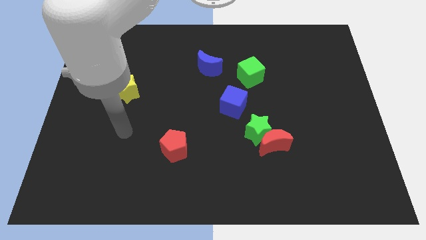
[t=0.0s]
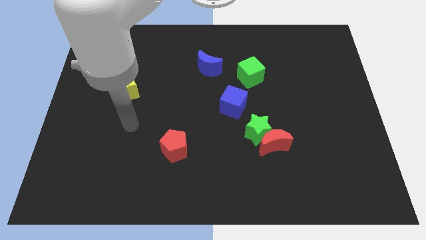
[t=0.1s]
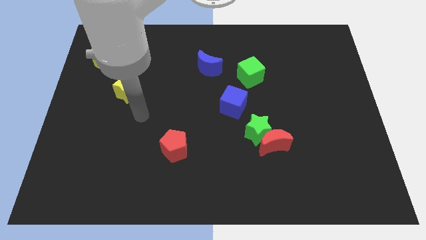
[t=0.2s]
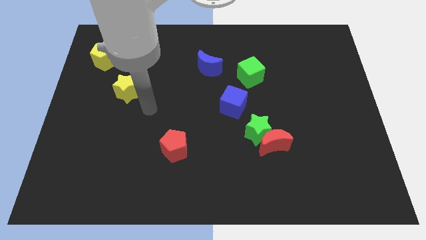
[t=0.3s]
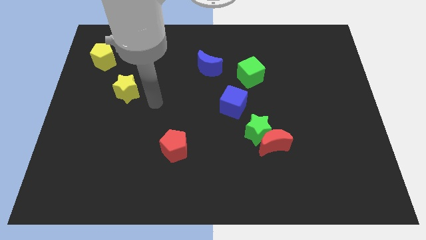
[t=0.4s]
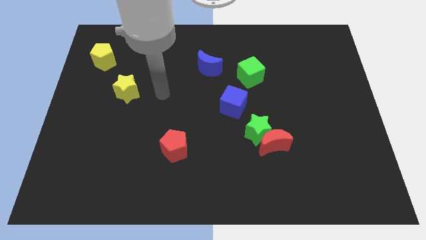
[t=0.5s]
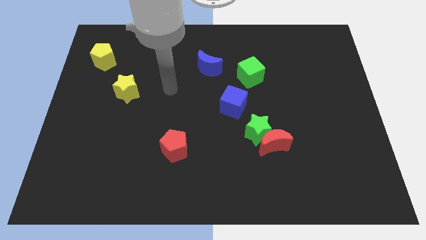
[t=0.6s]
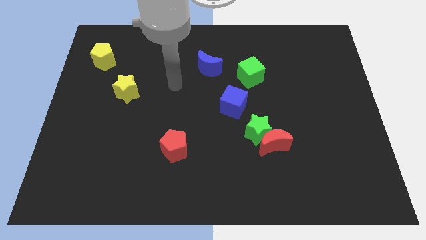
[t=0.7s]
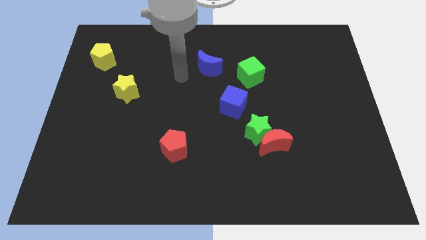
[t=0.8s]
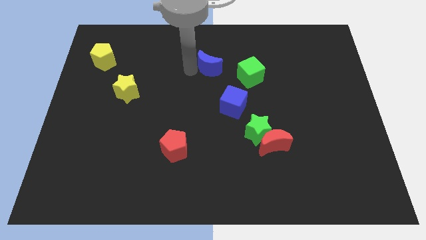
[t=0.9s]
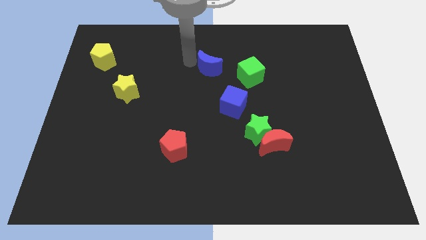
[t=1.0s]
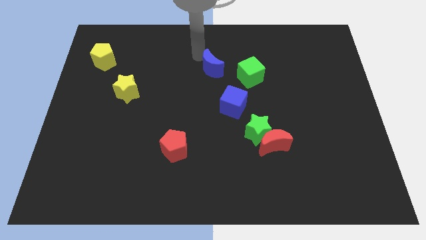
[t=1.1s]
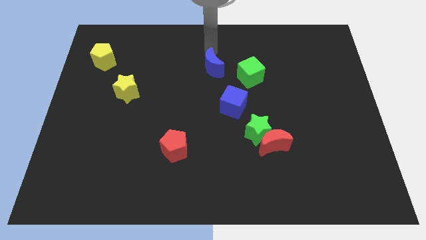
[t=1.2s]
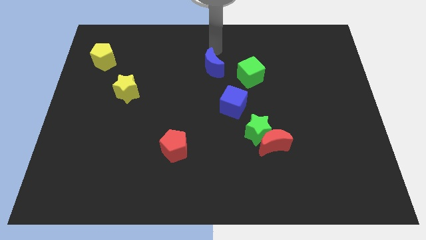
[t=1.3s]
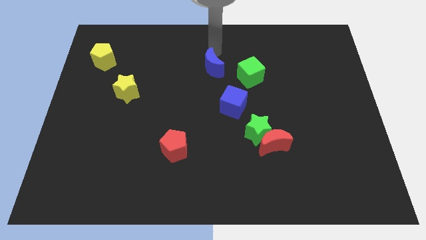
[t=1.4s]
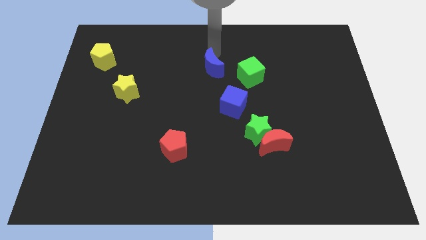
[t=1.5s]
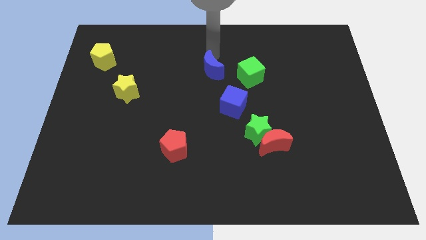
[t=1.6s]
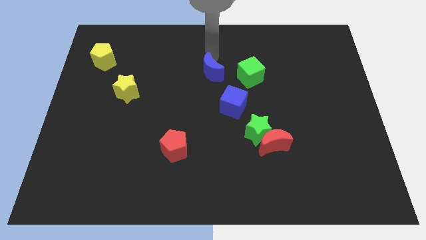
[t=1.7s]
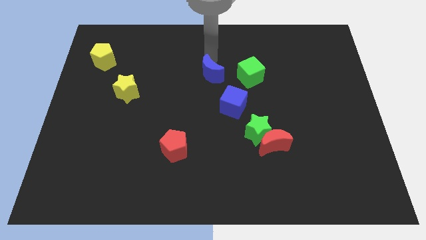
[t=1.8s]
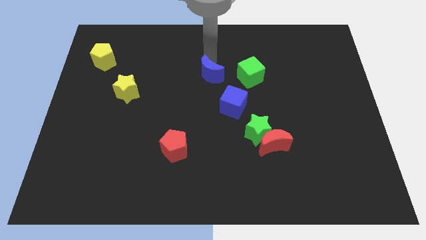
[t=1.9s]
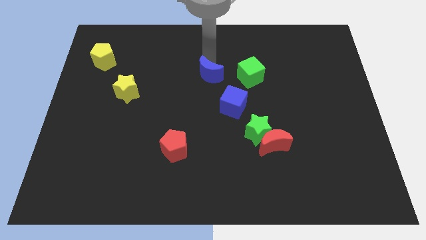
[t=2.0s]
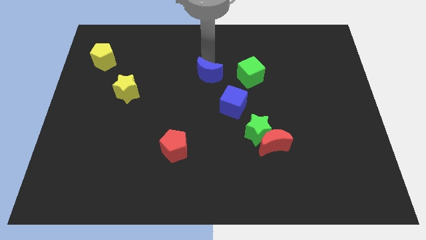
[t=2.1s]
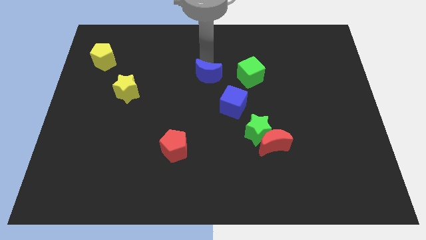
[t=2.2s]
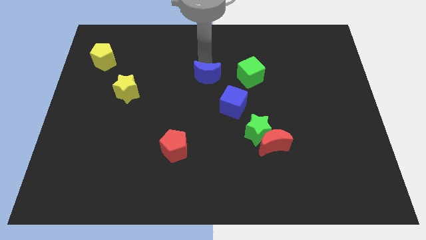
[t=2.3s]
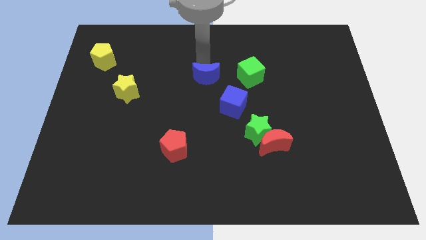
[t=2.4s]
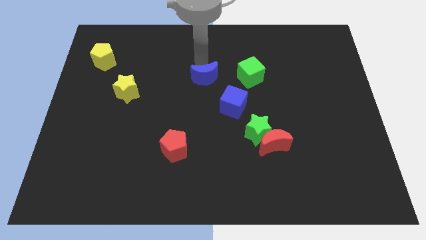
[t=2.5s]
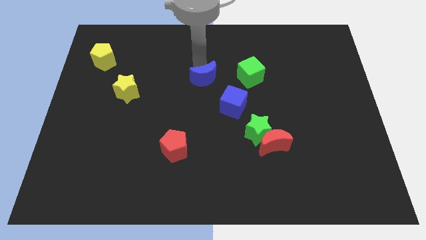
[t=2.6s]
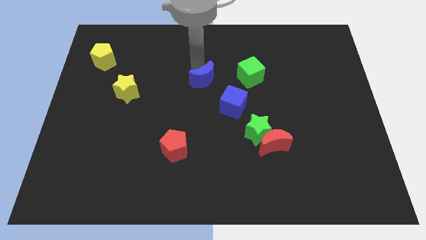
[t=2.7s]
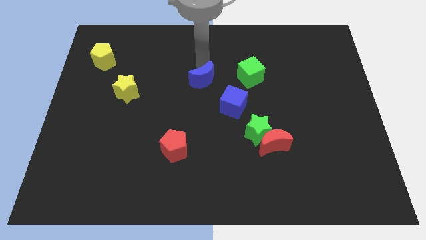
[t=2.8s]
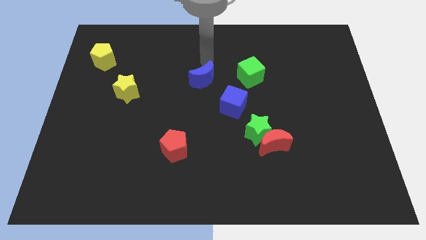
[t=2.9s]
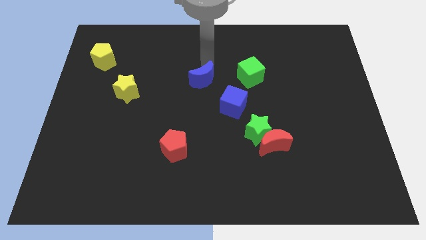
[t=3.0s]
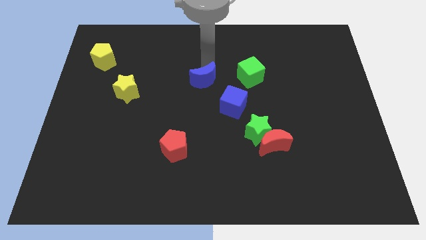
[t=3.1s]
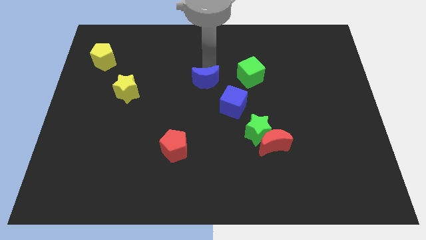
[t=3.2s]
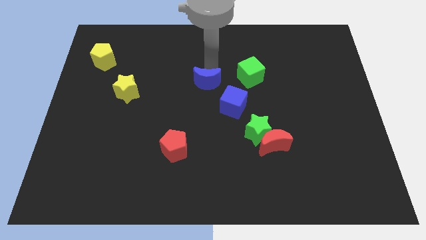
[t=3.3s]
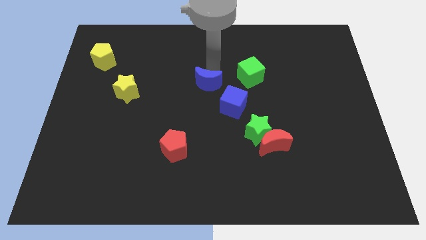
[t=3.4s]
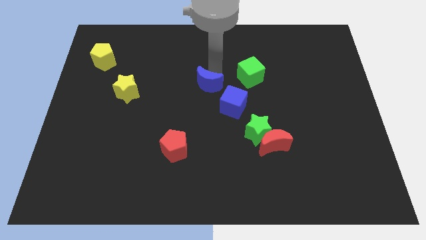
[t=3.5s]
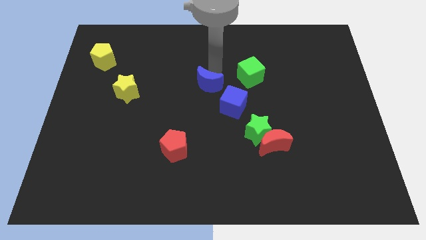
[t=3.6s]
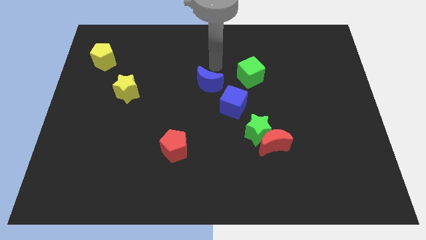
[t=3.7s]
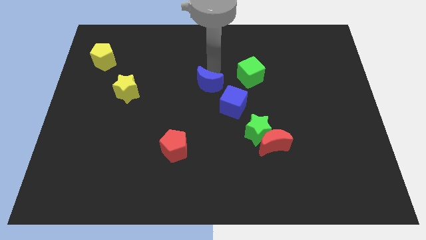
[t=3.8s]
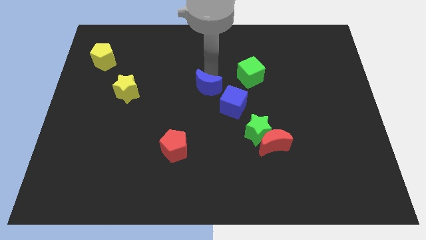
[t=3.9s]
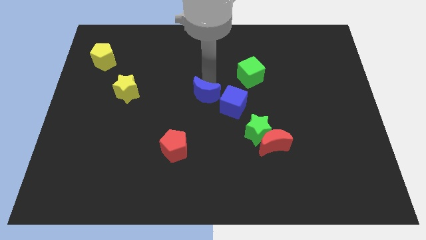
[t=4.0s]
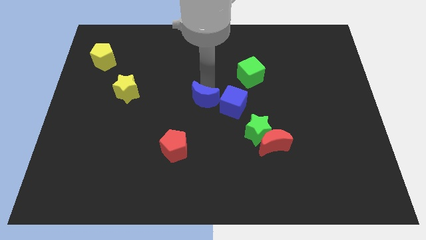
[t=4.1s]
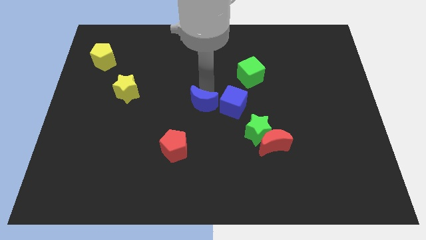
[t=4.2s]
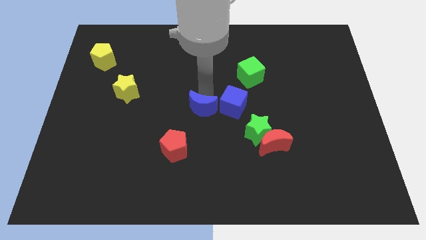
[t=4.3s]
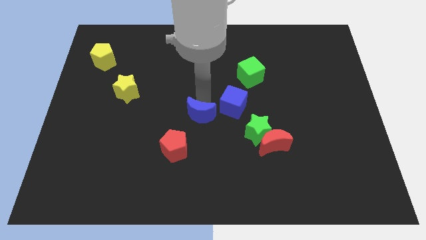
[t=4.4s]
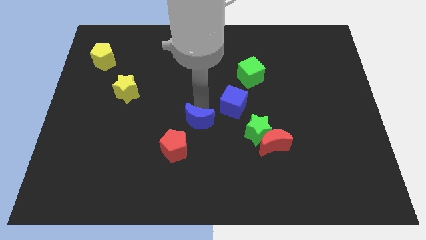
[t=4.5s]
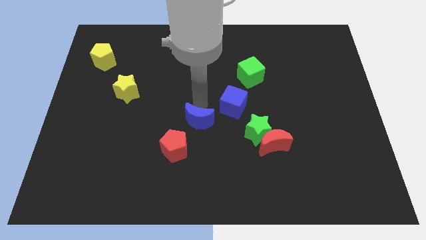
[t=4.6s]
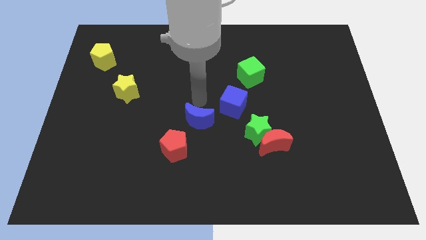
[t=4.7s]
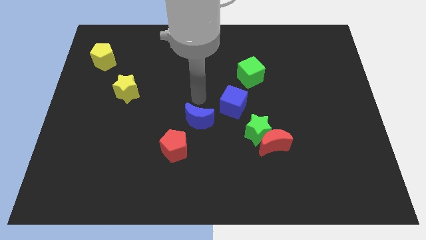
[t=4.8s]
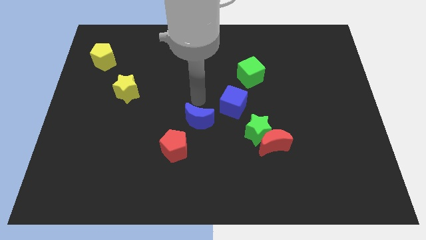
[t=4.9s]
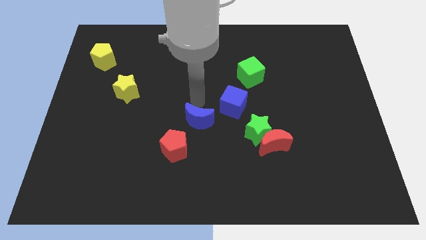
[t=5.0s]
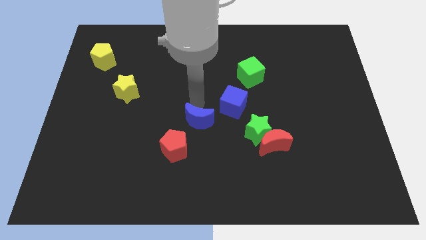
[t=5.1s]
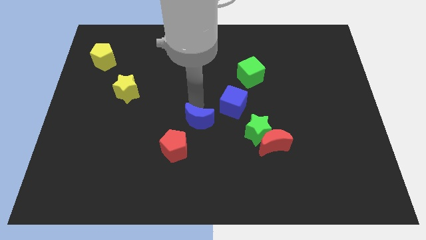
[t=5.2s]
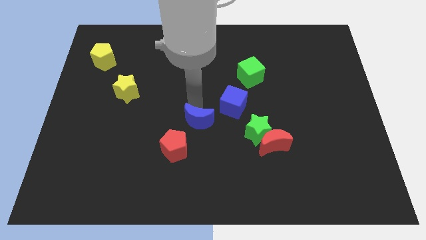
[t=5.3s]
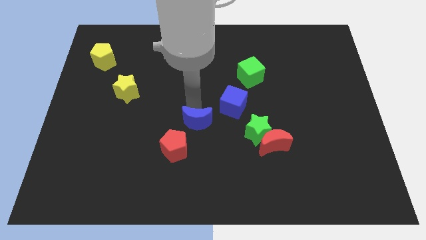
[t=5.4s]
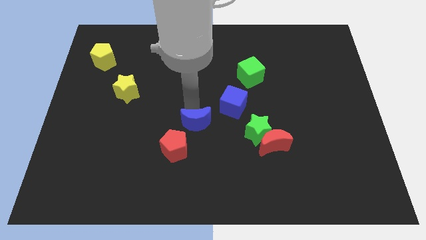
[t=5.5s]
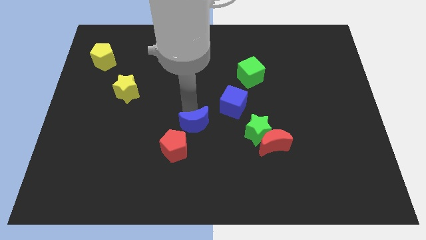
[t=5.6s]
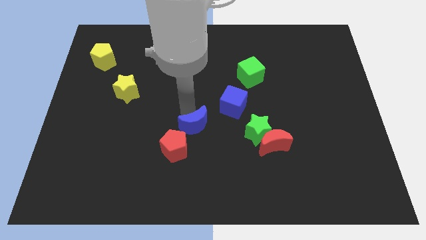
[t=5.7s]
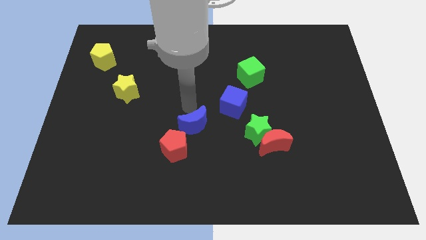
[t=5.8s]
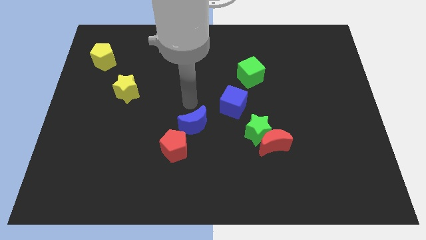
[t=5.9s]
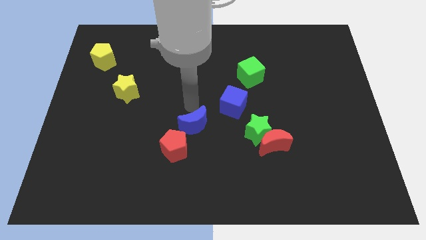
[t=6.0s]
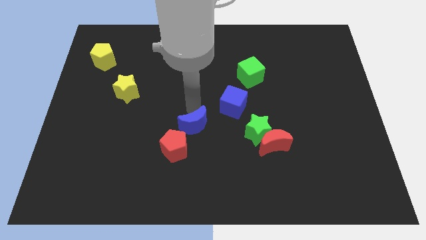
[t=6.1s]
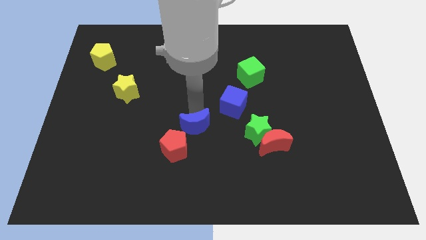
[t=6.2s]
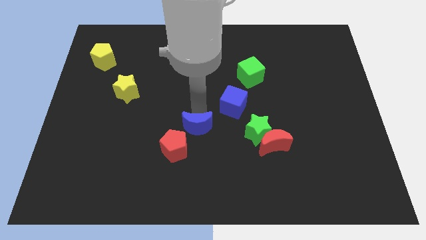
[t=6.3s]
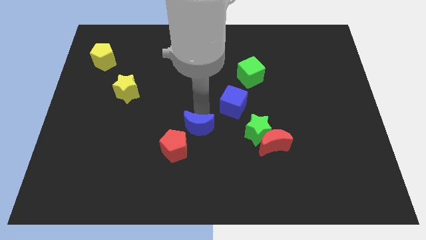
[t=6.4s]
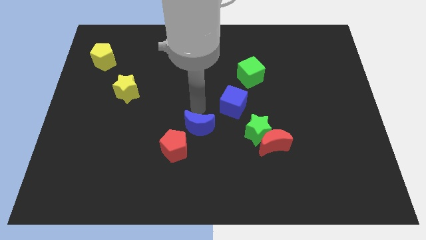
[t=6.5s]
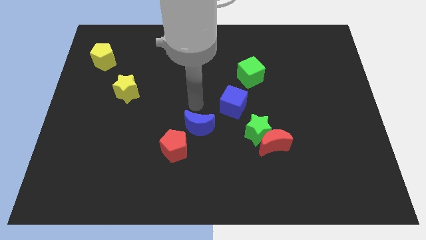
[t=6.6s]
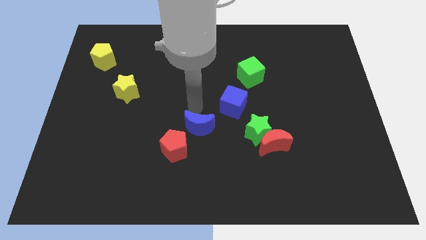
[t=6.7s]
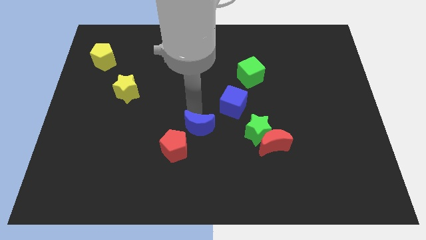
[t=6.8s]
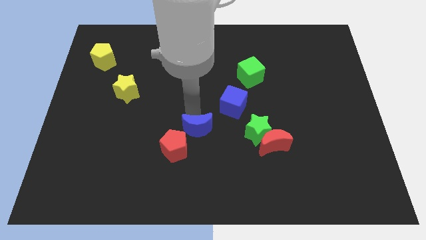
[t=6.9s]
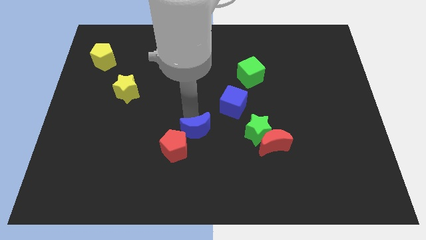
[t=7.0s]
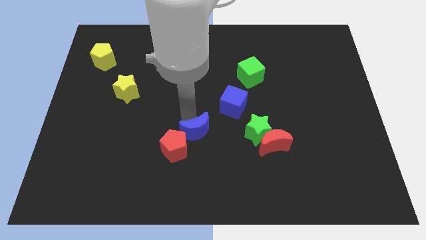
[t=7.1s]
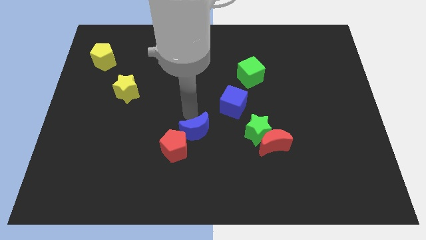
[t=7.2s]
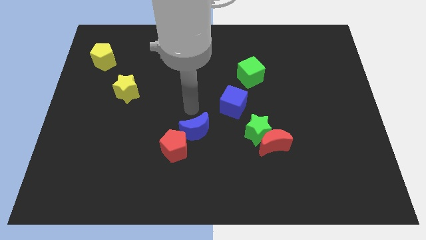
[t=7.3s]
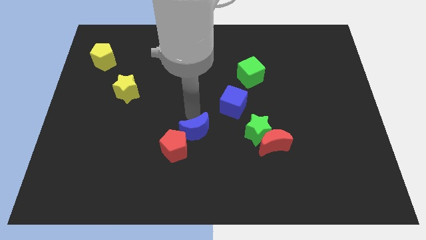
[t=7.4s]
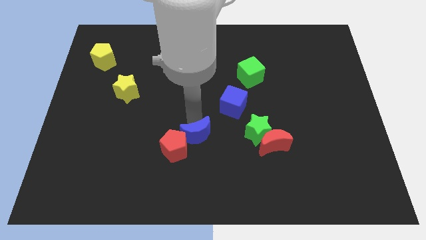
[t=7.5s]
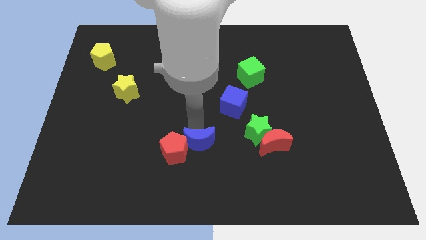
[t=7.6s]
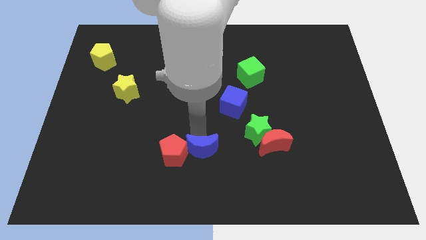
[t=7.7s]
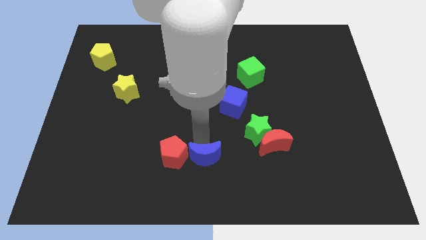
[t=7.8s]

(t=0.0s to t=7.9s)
slide the blue moon to the bottom
